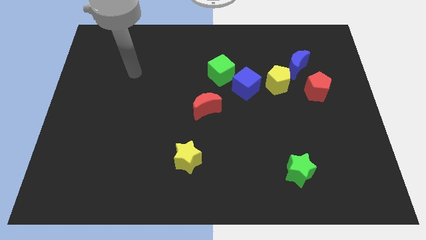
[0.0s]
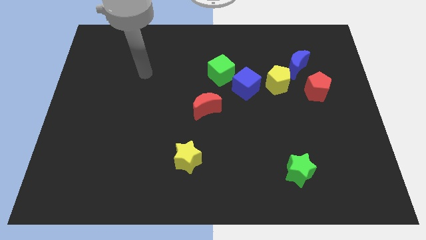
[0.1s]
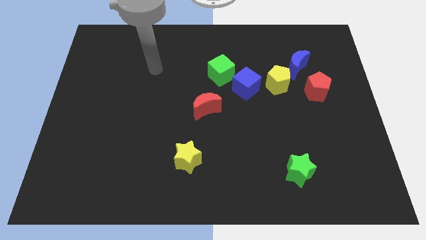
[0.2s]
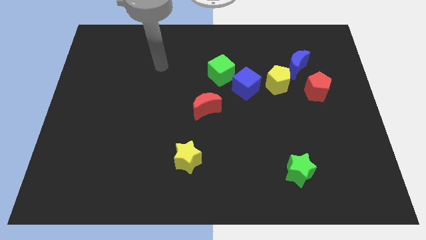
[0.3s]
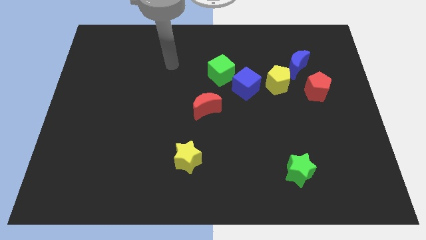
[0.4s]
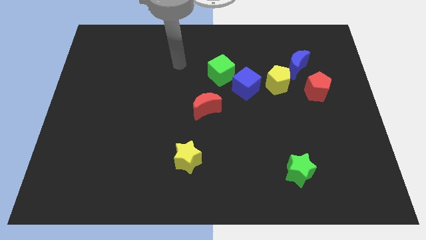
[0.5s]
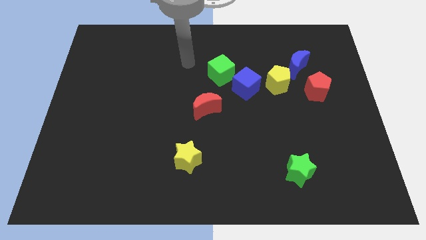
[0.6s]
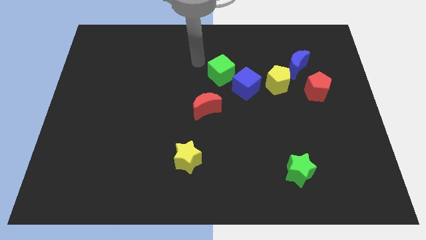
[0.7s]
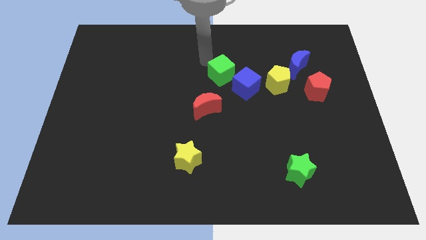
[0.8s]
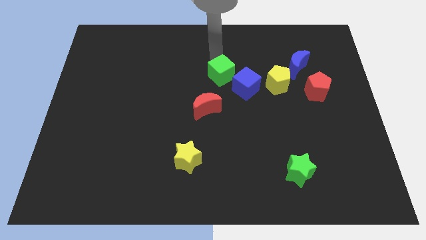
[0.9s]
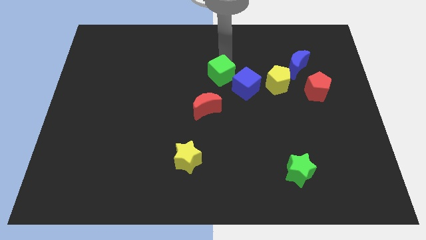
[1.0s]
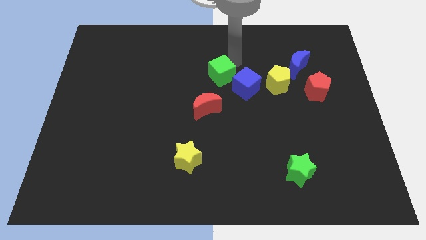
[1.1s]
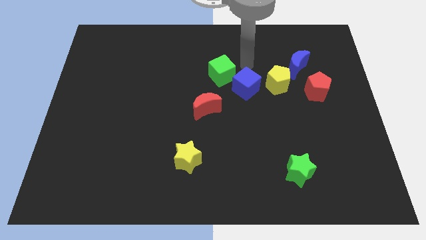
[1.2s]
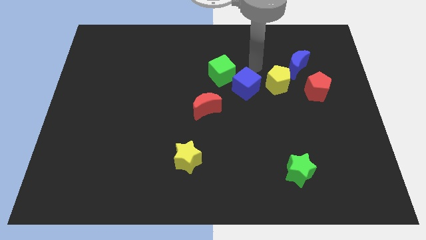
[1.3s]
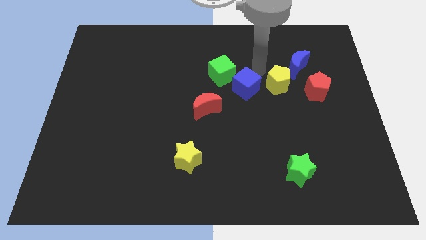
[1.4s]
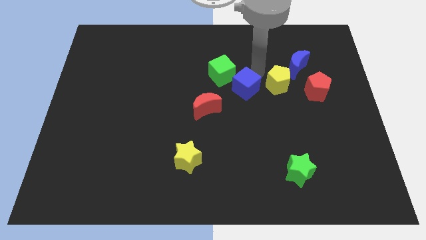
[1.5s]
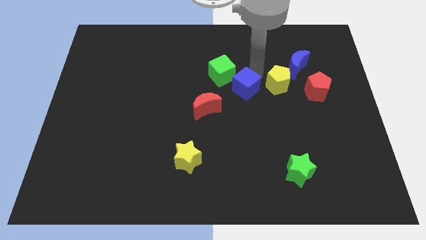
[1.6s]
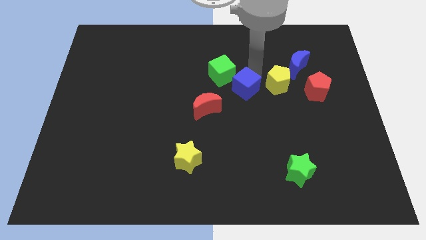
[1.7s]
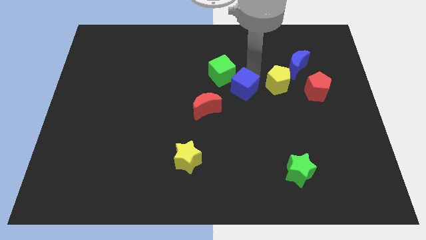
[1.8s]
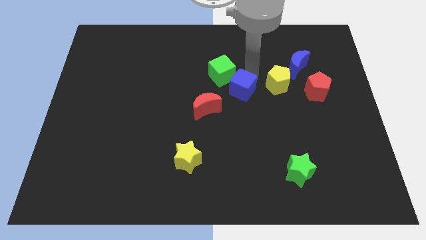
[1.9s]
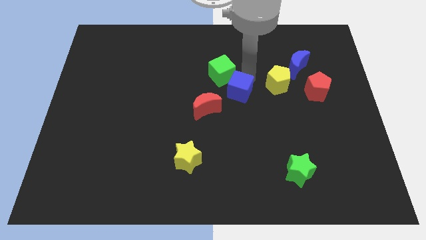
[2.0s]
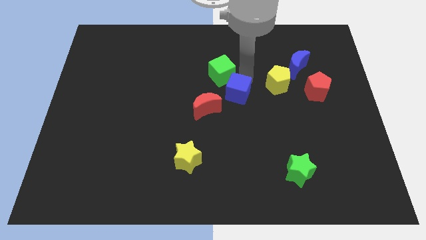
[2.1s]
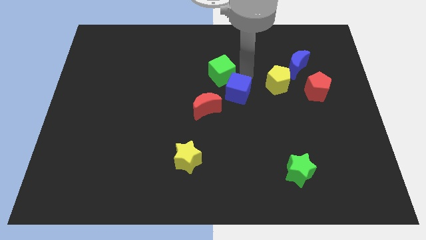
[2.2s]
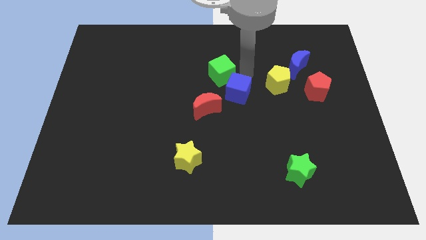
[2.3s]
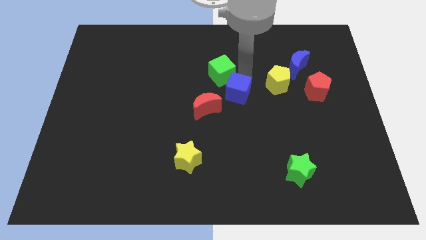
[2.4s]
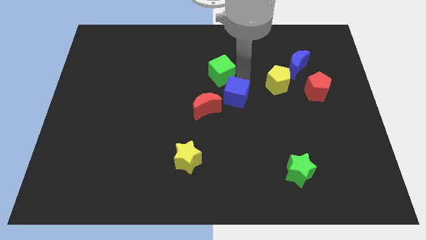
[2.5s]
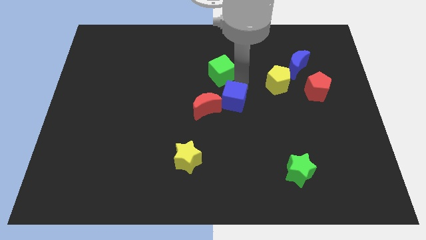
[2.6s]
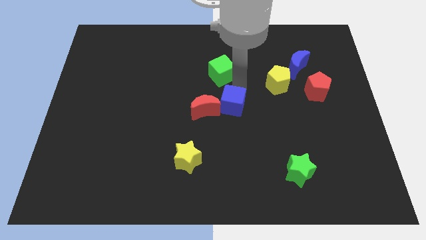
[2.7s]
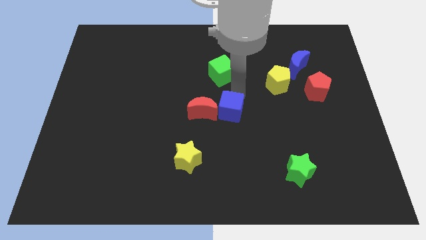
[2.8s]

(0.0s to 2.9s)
move the blue cube somewhat downwards and to the left

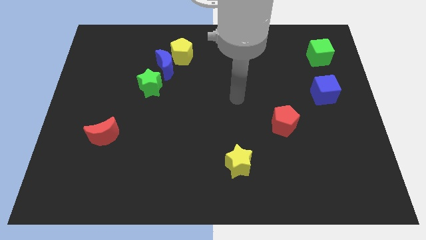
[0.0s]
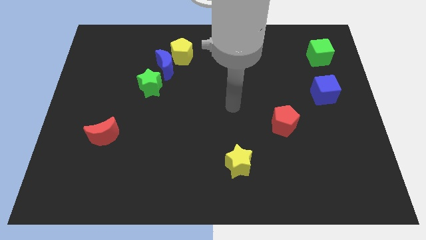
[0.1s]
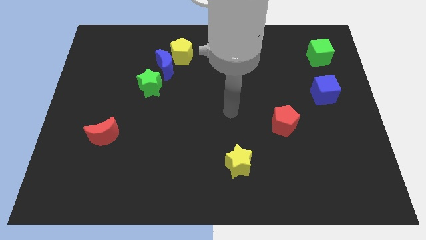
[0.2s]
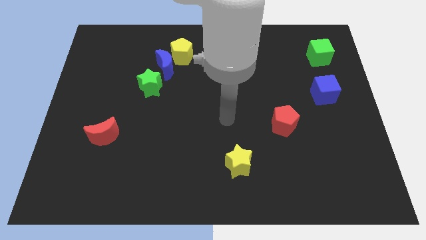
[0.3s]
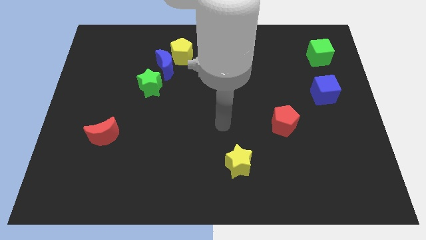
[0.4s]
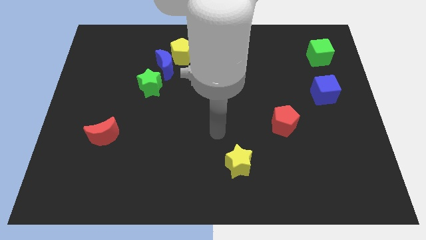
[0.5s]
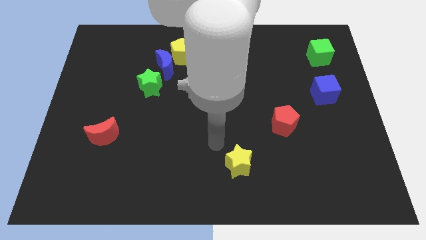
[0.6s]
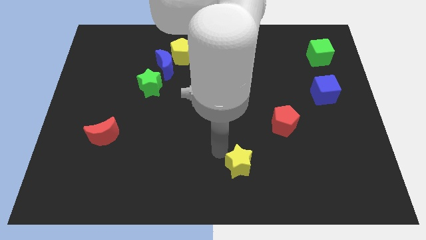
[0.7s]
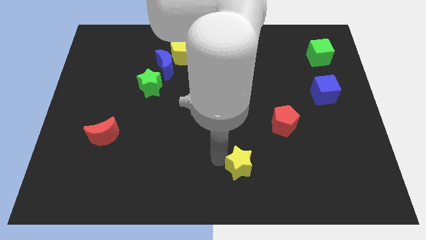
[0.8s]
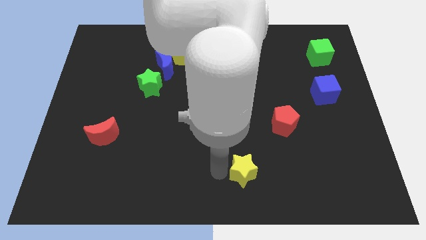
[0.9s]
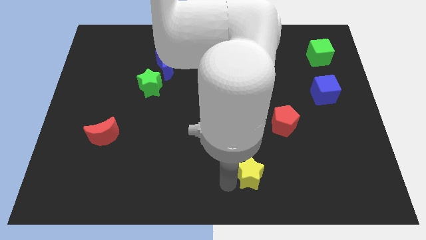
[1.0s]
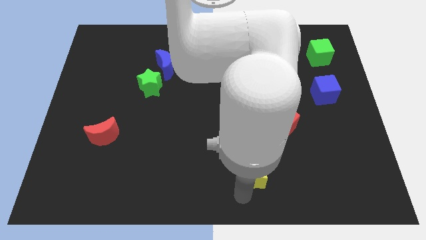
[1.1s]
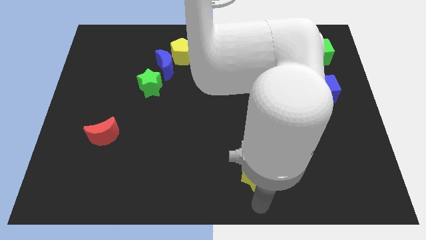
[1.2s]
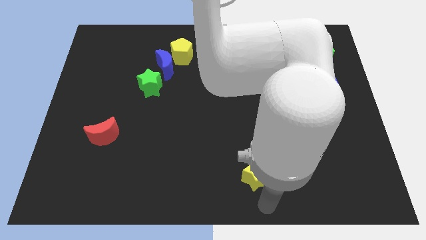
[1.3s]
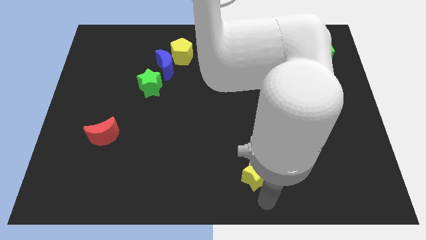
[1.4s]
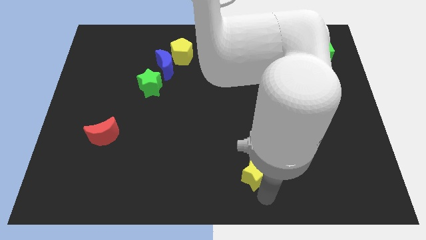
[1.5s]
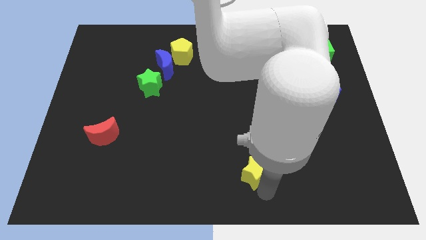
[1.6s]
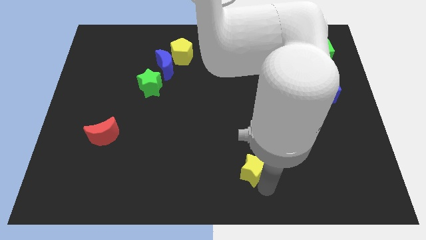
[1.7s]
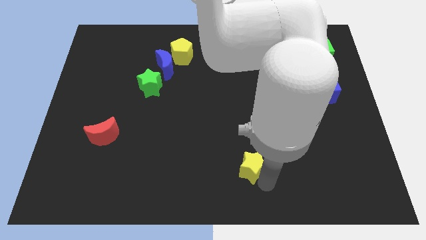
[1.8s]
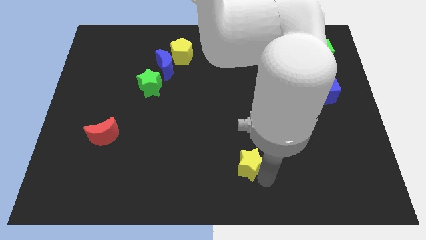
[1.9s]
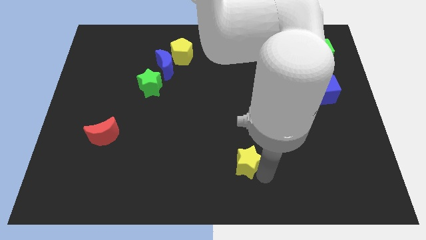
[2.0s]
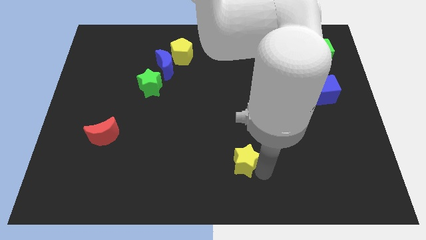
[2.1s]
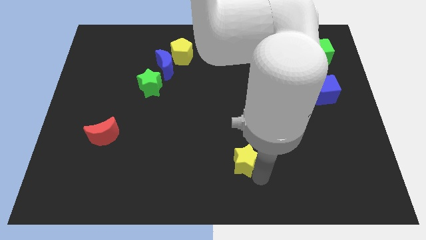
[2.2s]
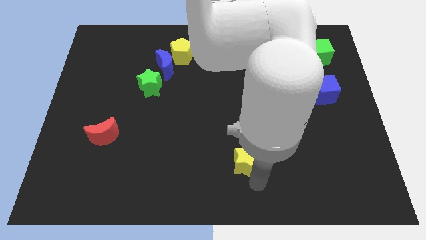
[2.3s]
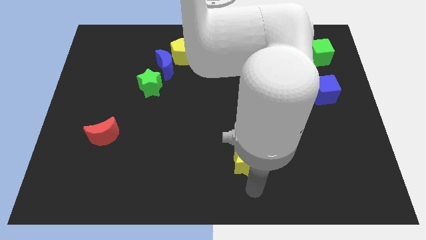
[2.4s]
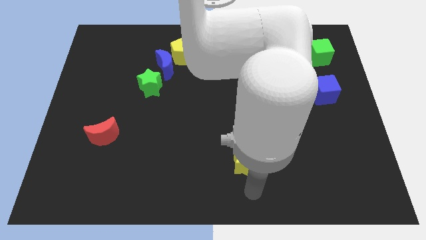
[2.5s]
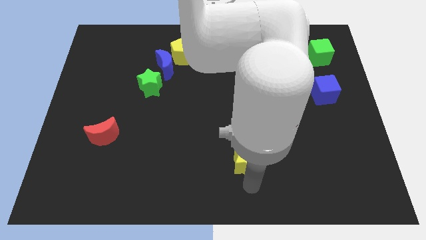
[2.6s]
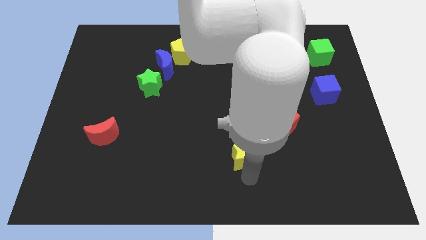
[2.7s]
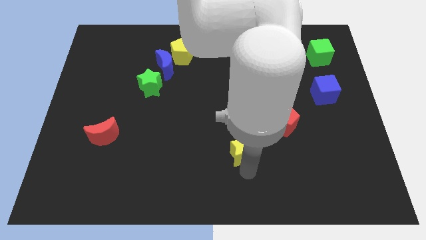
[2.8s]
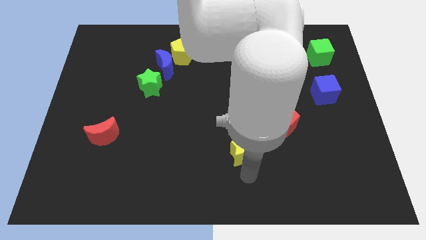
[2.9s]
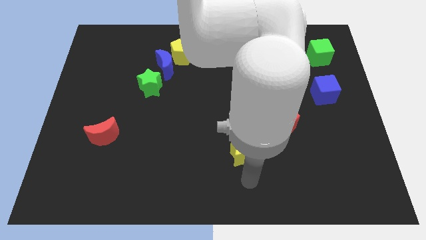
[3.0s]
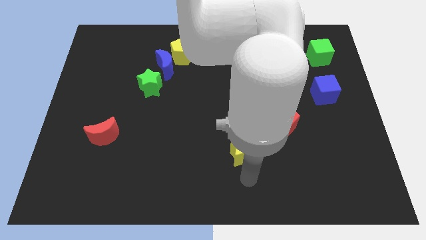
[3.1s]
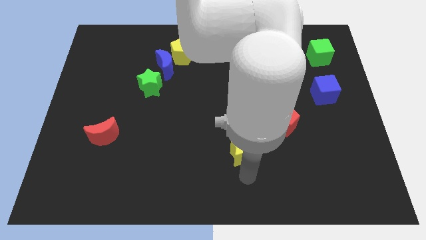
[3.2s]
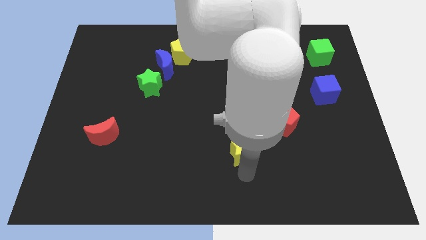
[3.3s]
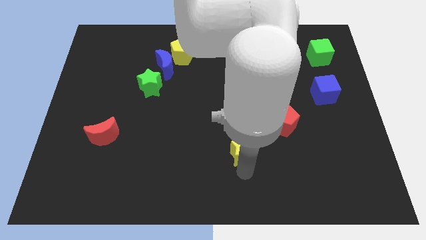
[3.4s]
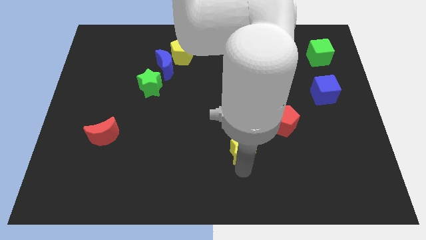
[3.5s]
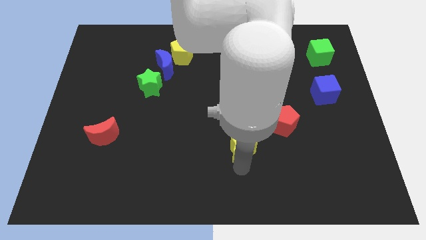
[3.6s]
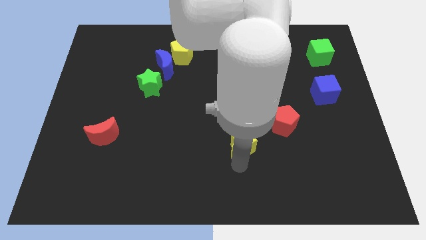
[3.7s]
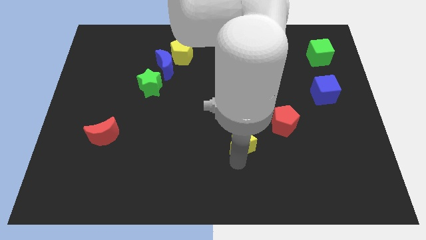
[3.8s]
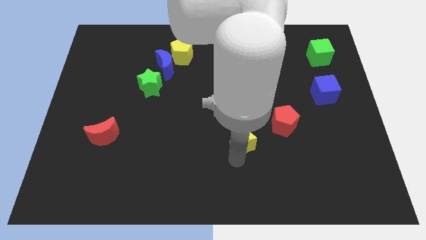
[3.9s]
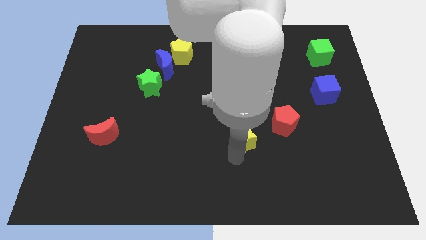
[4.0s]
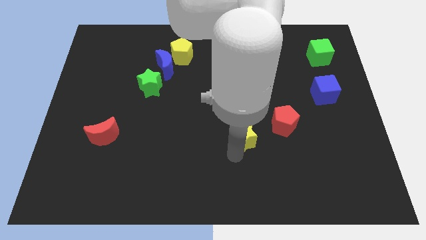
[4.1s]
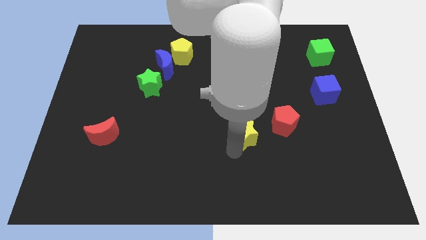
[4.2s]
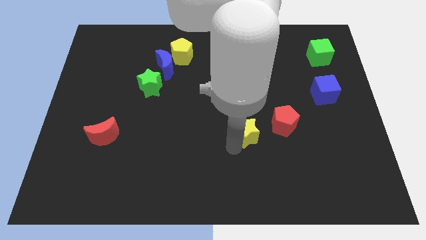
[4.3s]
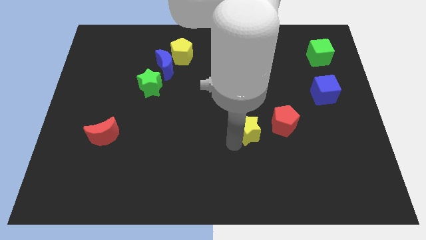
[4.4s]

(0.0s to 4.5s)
slightly slide the yellow star up and then to the right

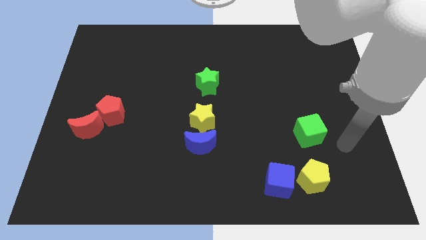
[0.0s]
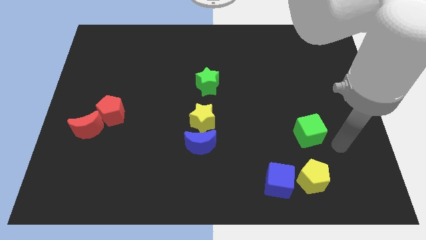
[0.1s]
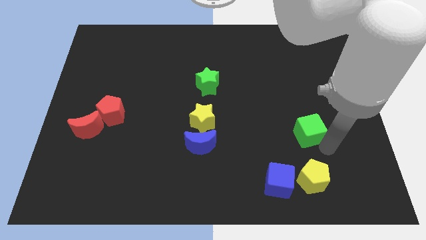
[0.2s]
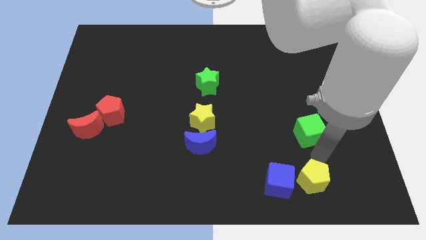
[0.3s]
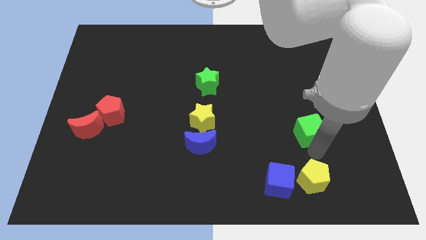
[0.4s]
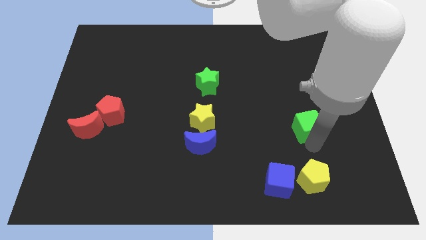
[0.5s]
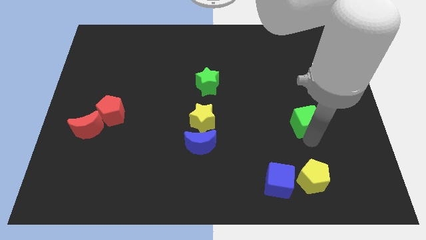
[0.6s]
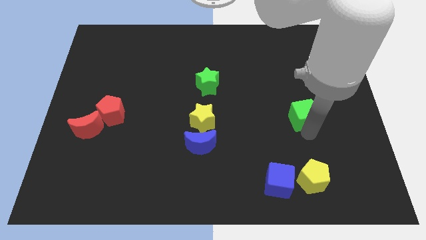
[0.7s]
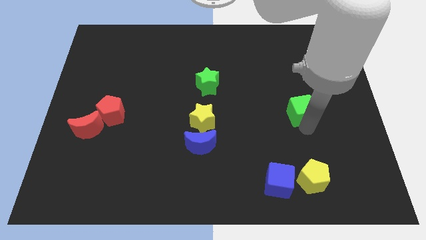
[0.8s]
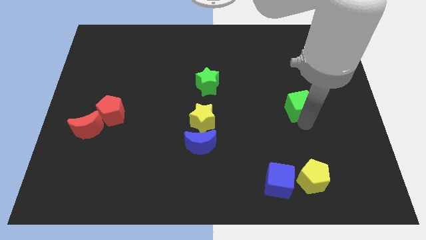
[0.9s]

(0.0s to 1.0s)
slide the green cube up a little

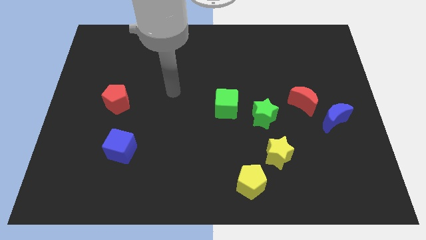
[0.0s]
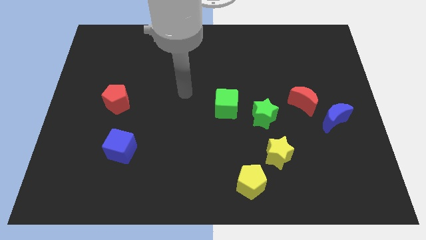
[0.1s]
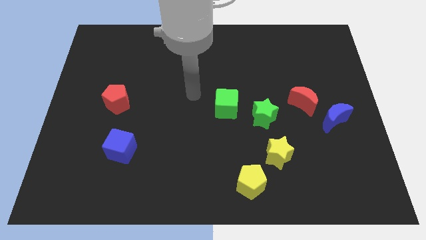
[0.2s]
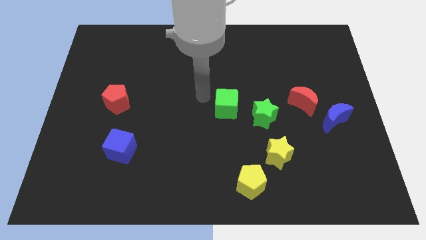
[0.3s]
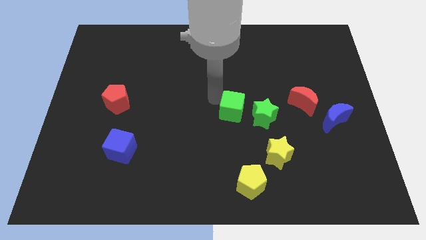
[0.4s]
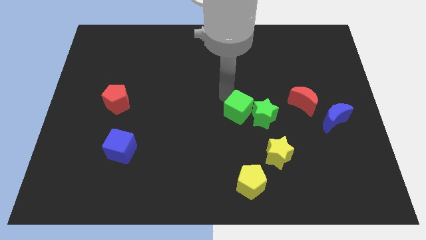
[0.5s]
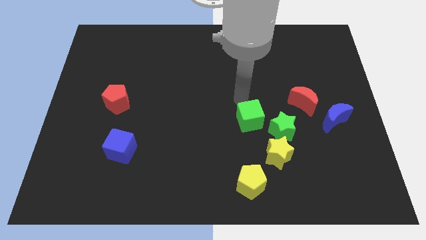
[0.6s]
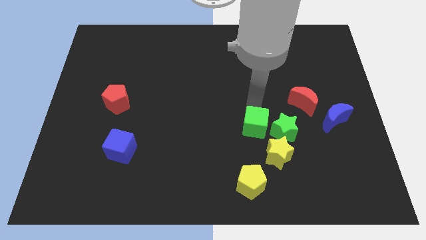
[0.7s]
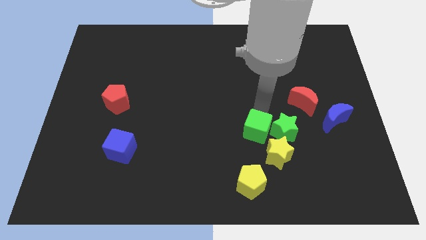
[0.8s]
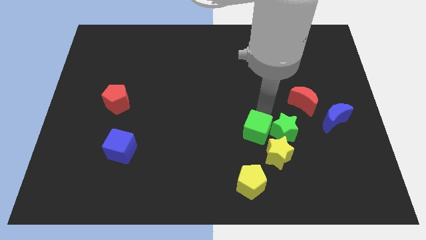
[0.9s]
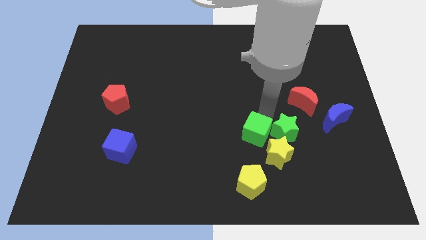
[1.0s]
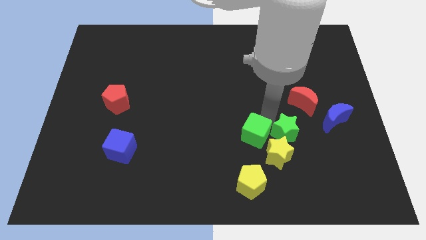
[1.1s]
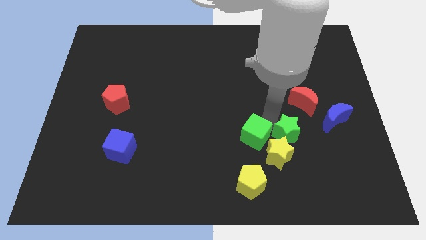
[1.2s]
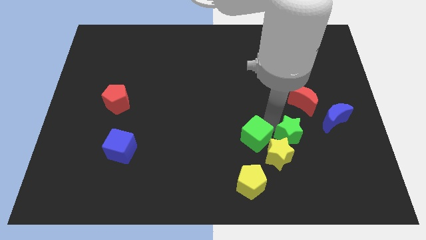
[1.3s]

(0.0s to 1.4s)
slightly slide the green star down and then right
